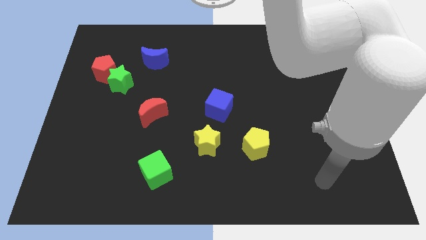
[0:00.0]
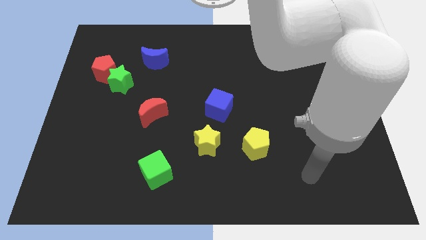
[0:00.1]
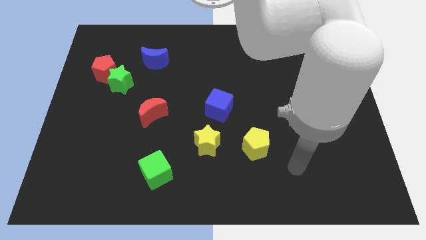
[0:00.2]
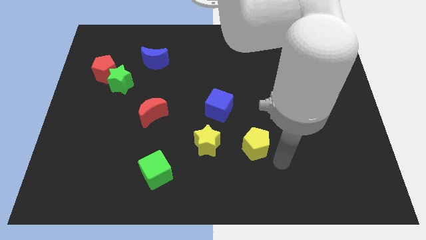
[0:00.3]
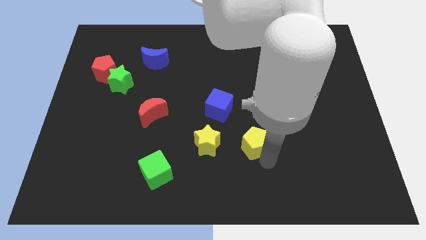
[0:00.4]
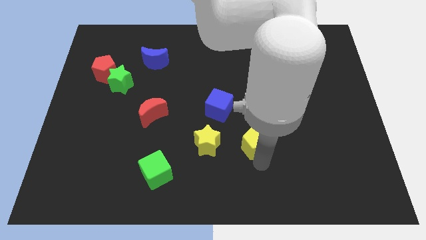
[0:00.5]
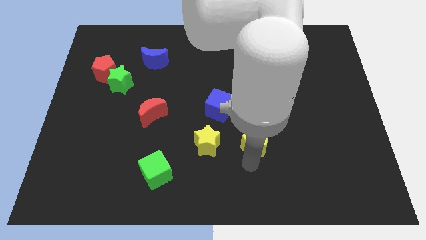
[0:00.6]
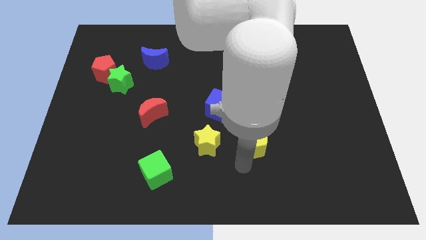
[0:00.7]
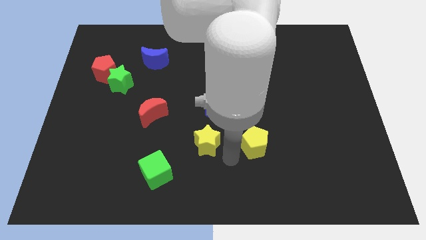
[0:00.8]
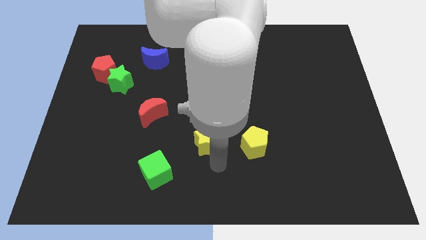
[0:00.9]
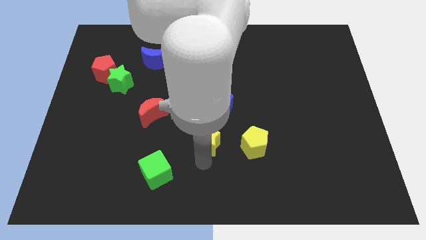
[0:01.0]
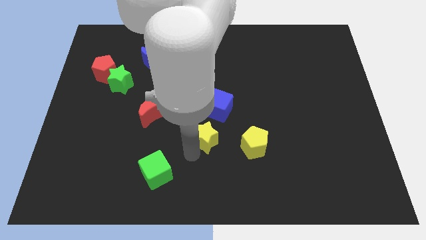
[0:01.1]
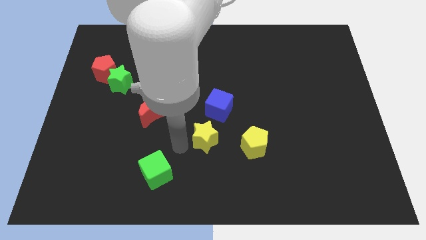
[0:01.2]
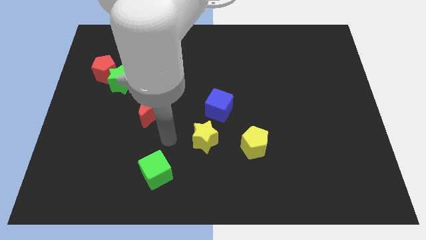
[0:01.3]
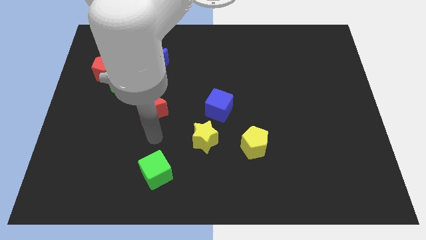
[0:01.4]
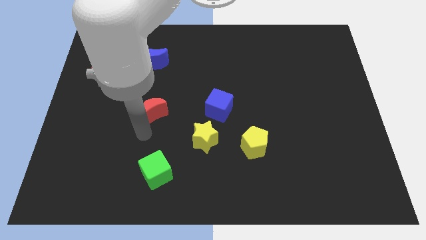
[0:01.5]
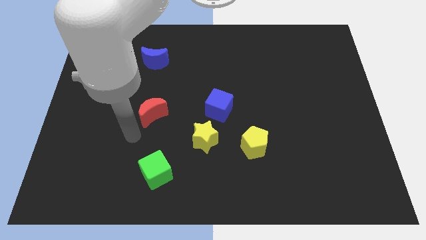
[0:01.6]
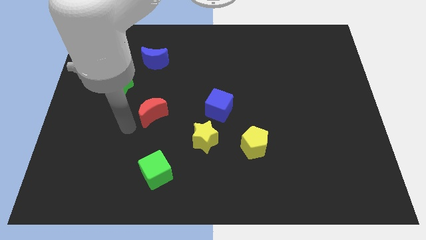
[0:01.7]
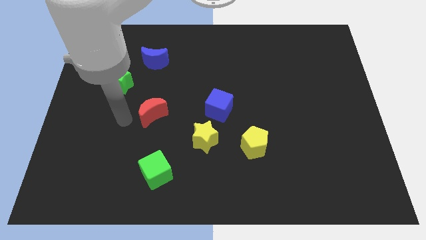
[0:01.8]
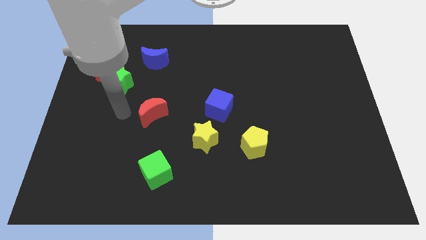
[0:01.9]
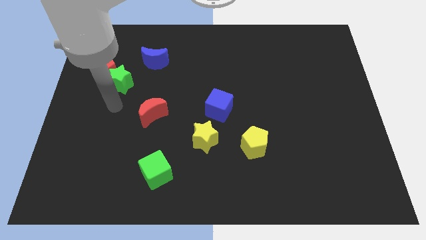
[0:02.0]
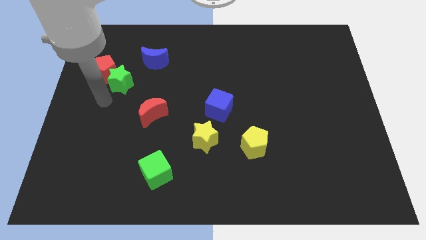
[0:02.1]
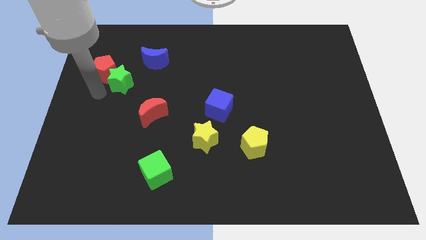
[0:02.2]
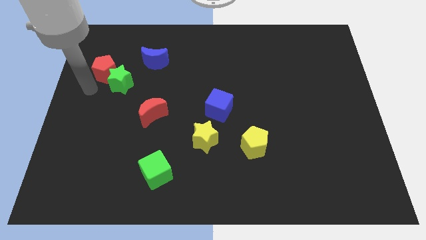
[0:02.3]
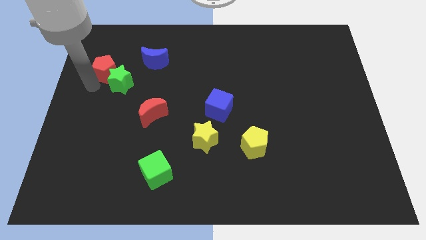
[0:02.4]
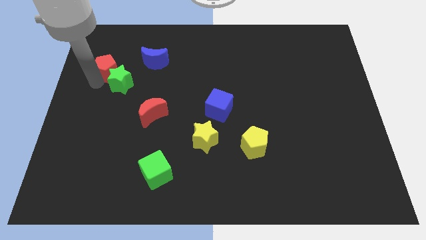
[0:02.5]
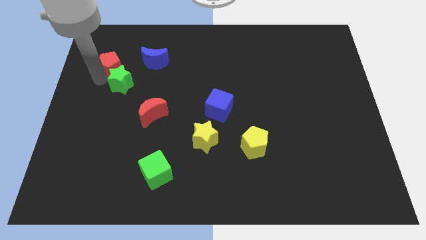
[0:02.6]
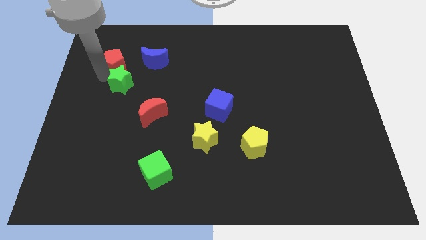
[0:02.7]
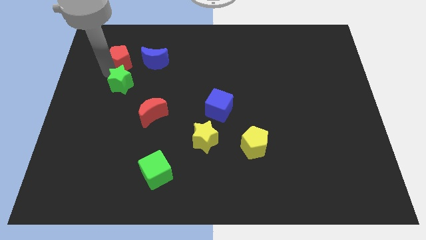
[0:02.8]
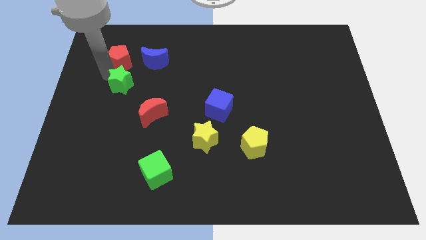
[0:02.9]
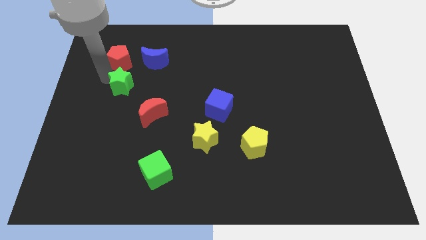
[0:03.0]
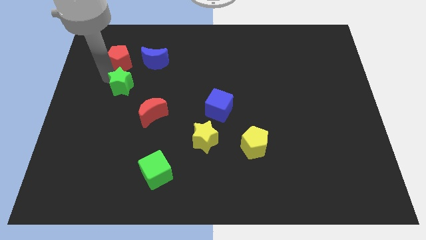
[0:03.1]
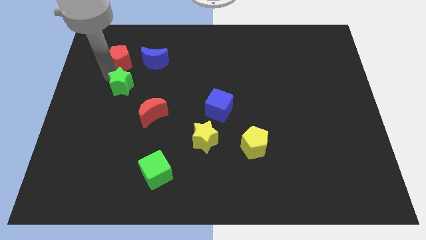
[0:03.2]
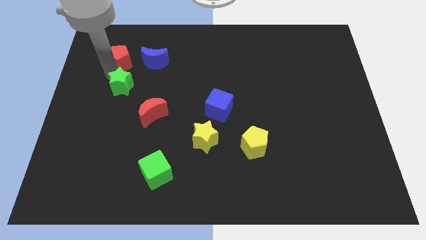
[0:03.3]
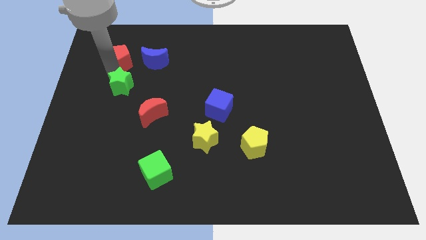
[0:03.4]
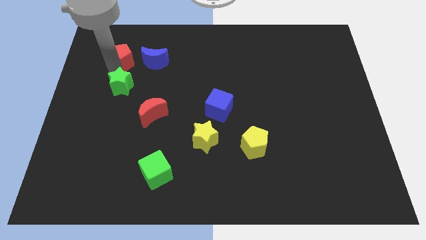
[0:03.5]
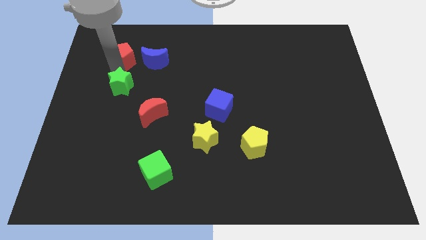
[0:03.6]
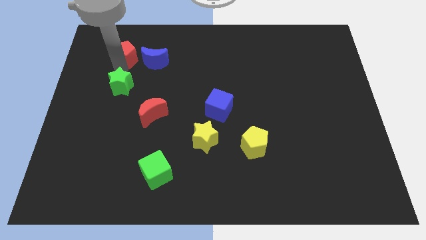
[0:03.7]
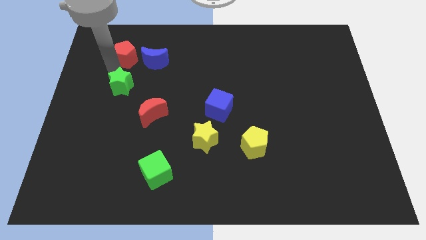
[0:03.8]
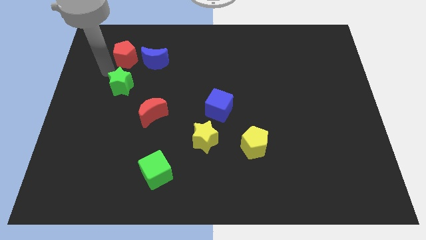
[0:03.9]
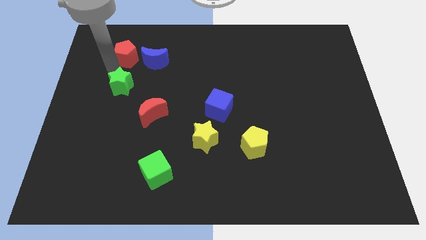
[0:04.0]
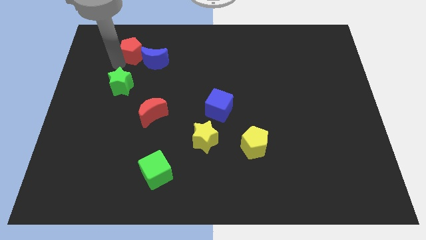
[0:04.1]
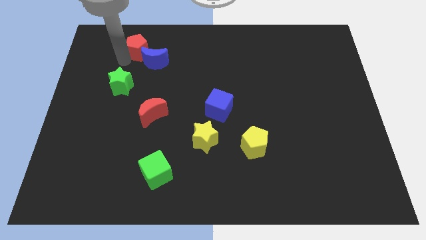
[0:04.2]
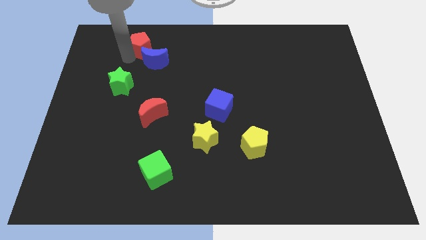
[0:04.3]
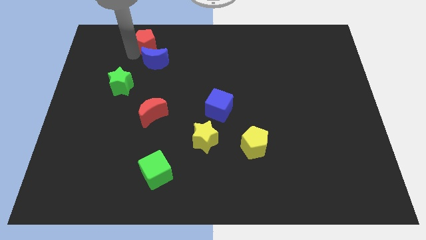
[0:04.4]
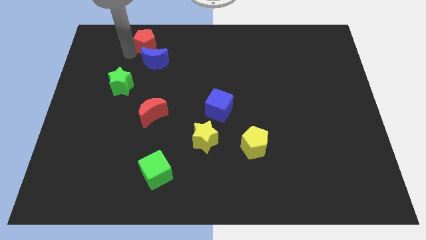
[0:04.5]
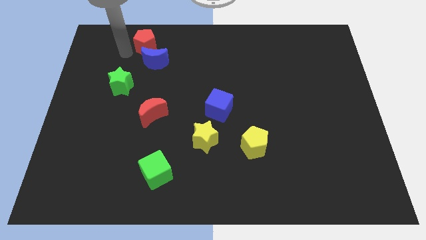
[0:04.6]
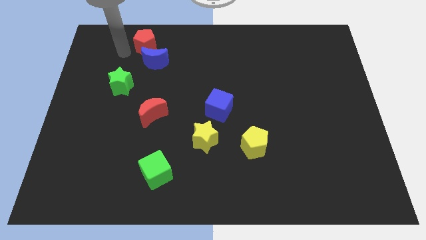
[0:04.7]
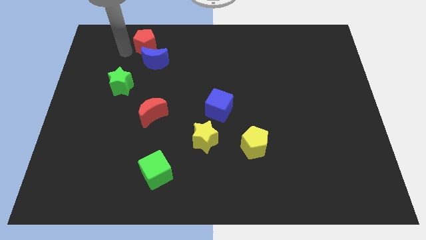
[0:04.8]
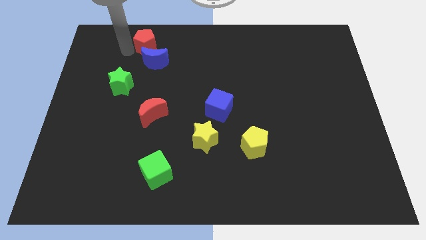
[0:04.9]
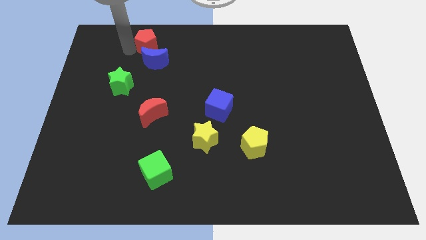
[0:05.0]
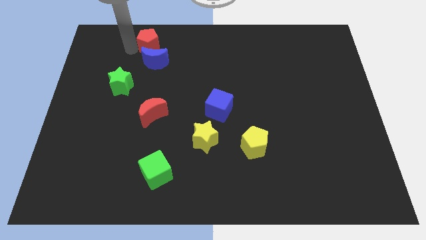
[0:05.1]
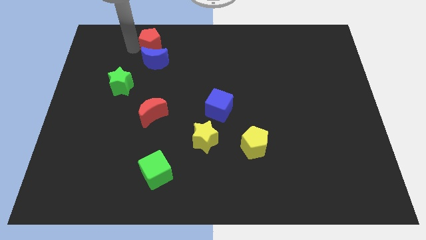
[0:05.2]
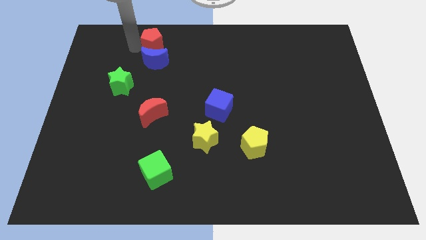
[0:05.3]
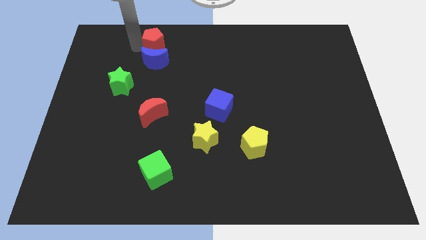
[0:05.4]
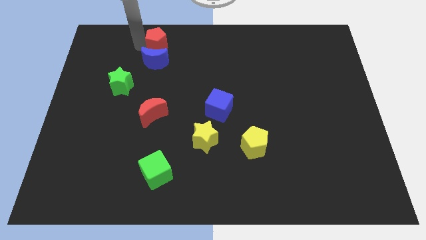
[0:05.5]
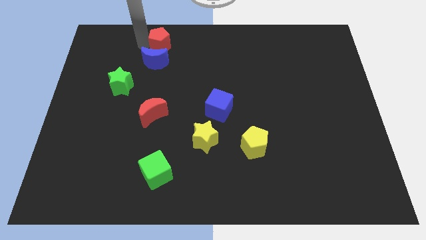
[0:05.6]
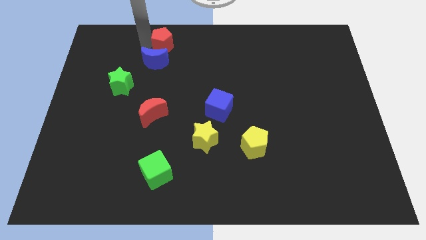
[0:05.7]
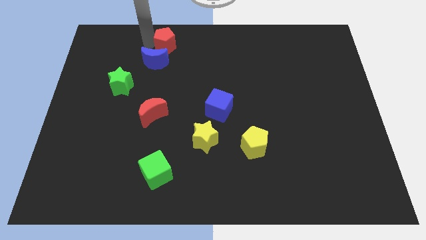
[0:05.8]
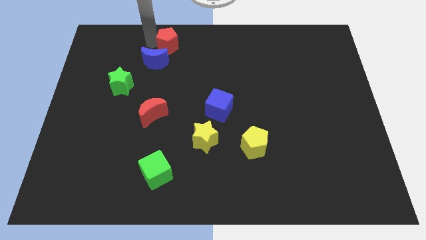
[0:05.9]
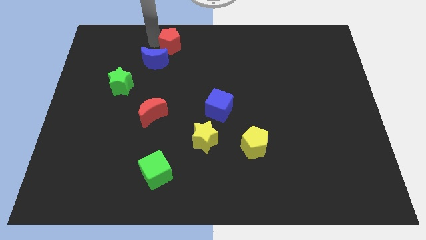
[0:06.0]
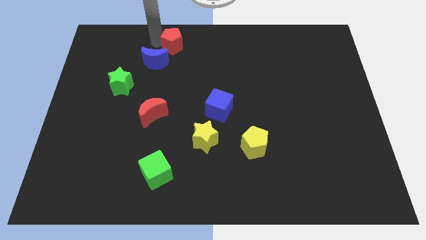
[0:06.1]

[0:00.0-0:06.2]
slide the red pentagon to the top

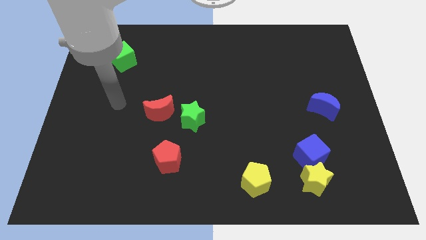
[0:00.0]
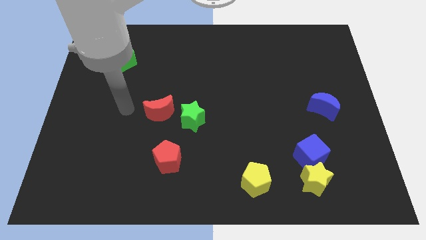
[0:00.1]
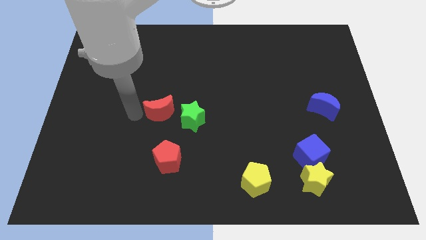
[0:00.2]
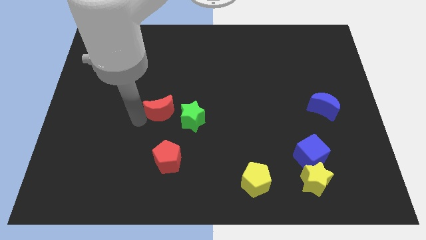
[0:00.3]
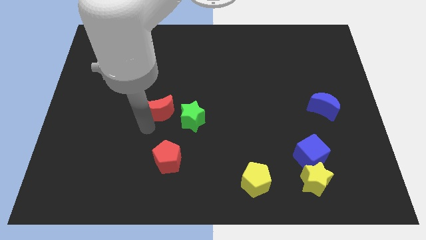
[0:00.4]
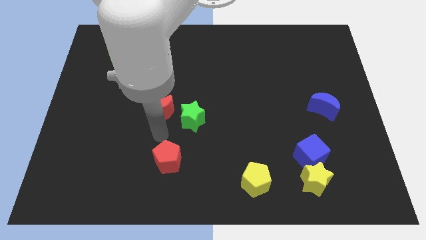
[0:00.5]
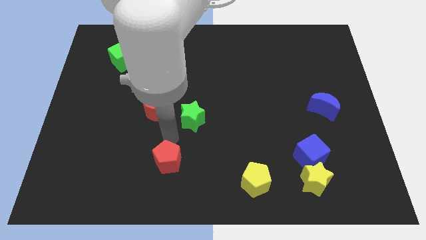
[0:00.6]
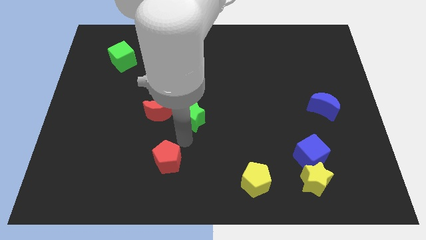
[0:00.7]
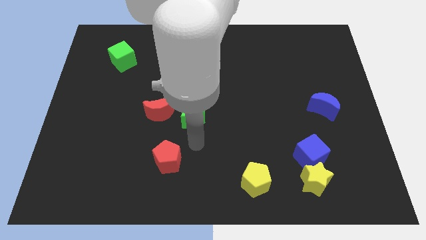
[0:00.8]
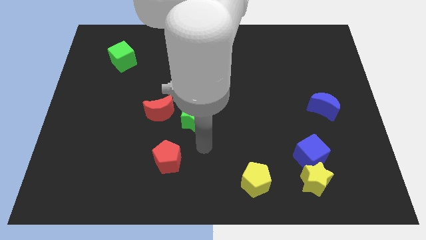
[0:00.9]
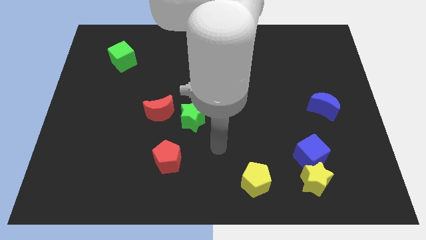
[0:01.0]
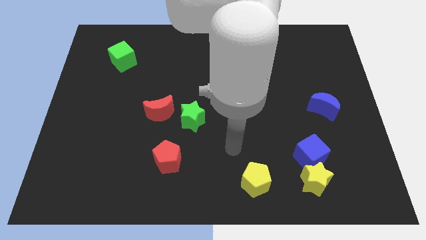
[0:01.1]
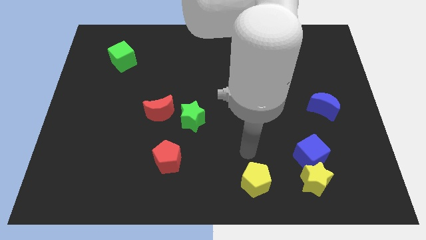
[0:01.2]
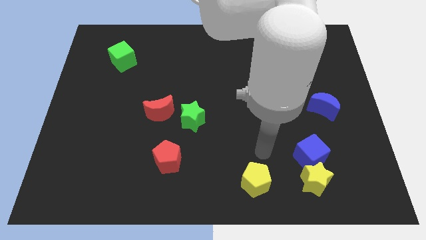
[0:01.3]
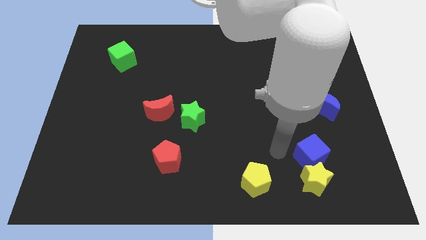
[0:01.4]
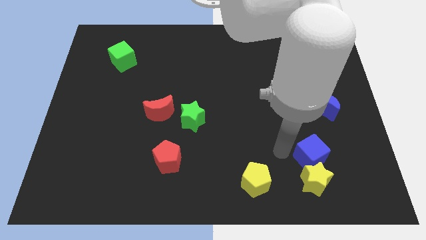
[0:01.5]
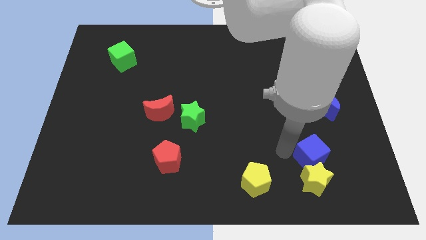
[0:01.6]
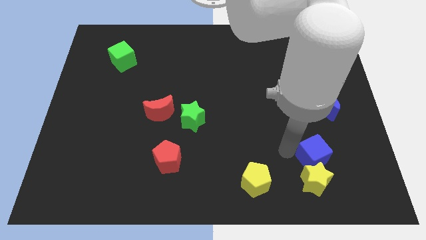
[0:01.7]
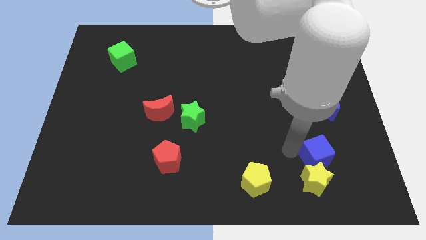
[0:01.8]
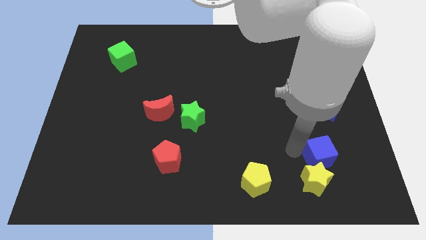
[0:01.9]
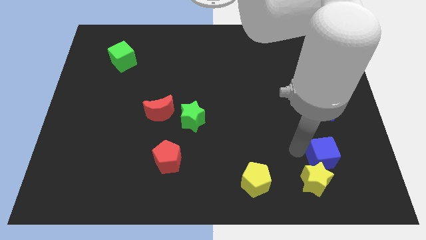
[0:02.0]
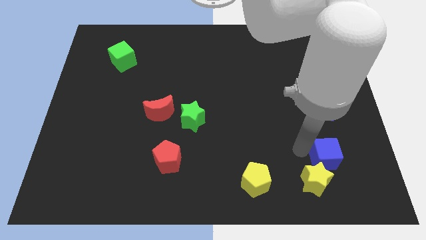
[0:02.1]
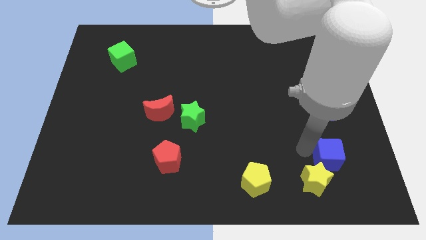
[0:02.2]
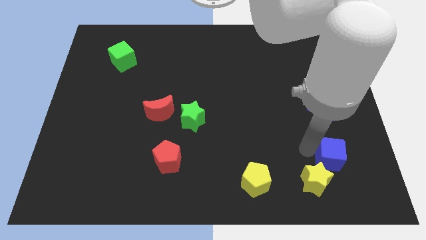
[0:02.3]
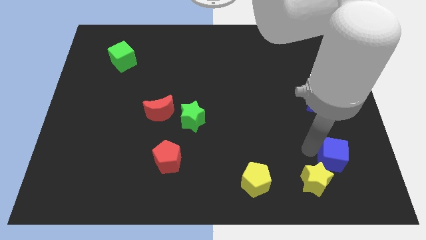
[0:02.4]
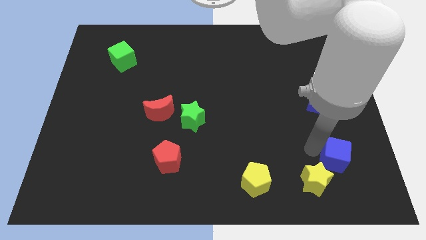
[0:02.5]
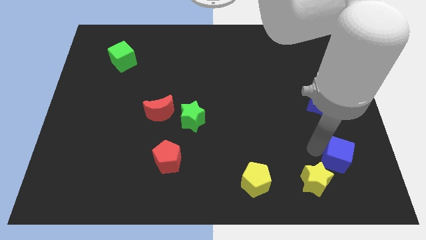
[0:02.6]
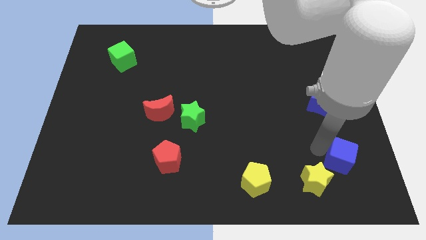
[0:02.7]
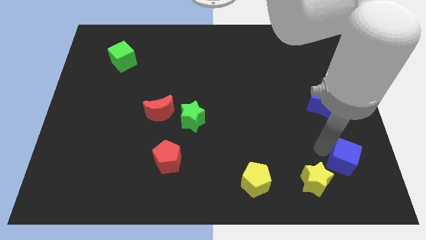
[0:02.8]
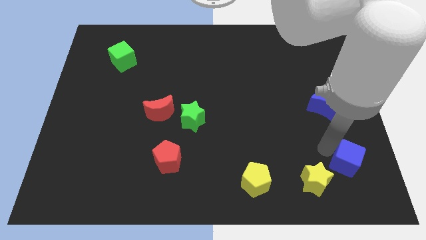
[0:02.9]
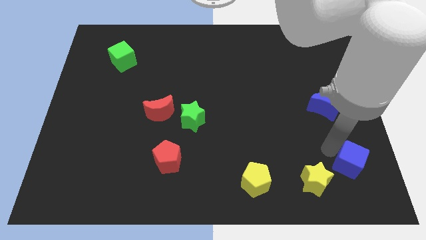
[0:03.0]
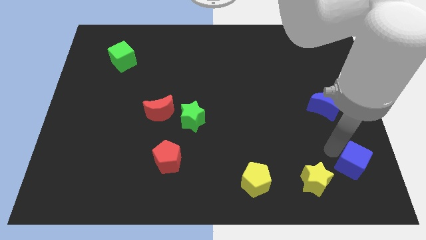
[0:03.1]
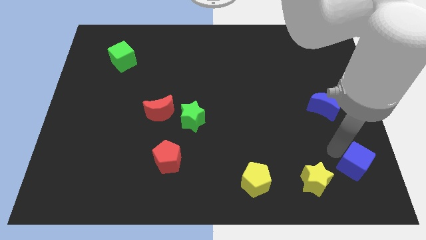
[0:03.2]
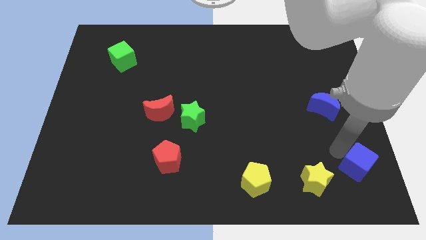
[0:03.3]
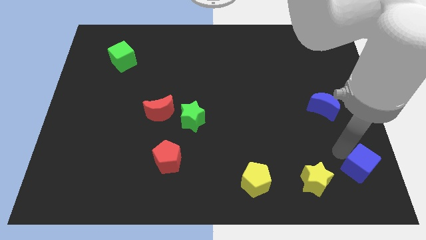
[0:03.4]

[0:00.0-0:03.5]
put the blue cube to the bottom right of the board
